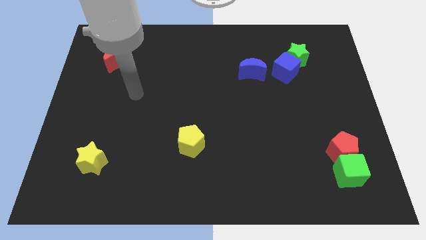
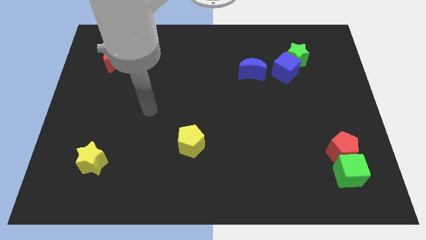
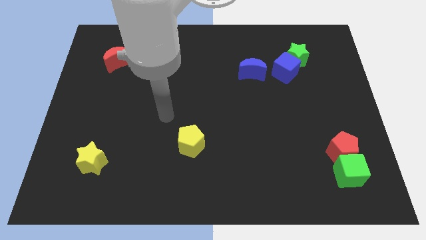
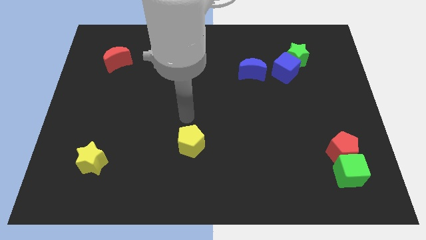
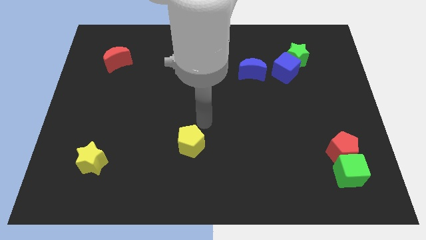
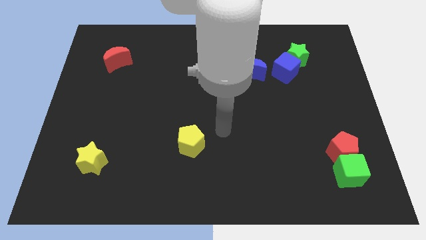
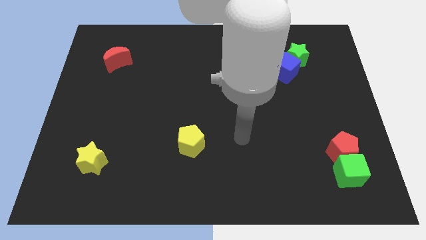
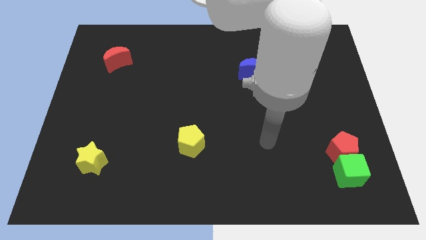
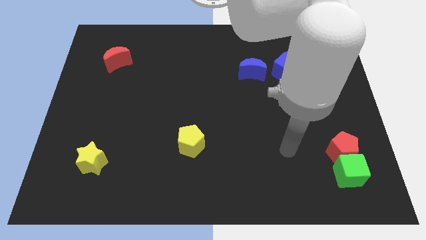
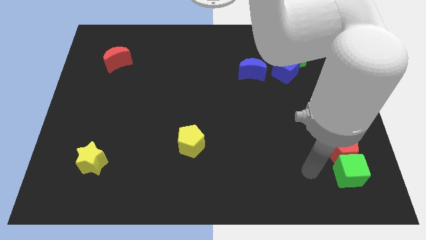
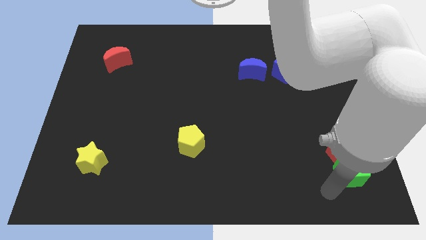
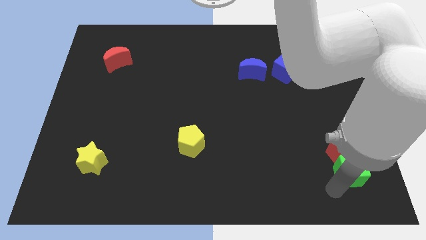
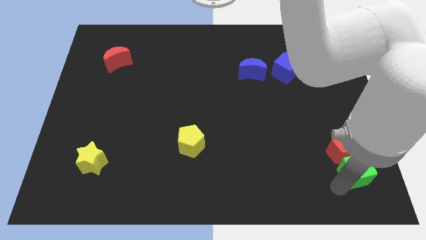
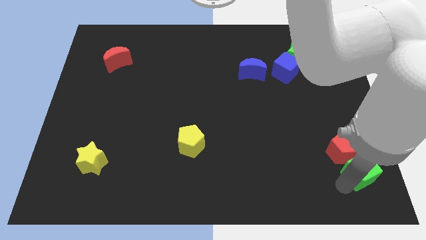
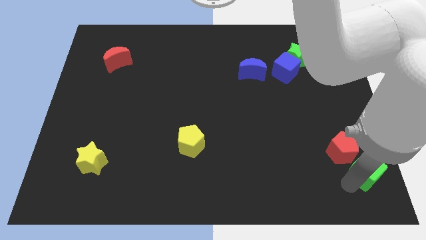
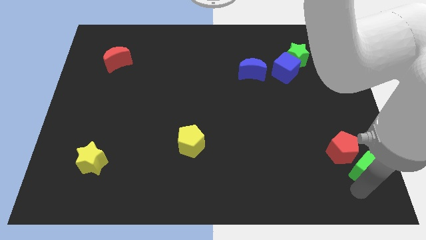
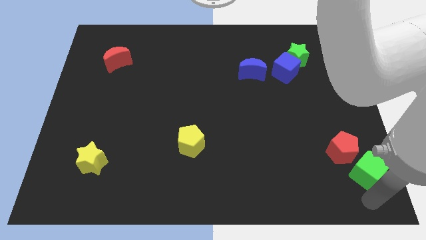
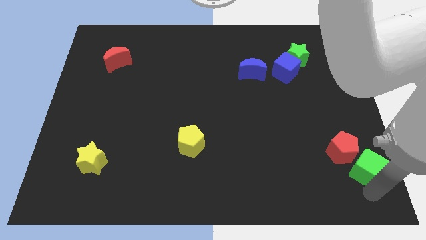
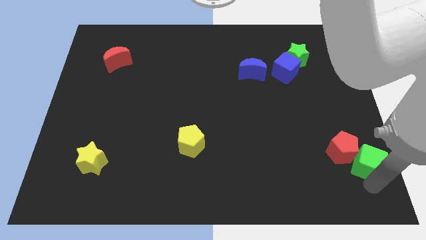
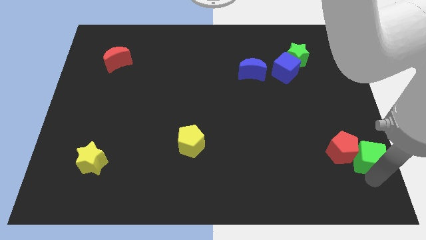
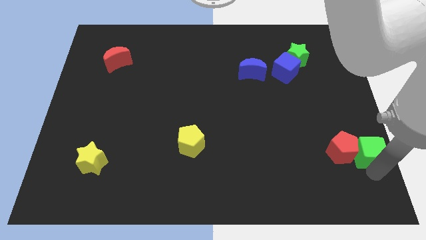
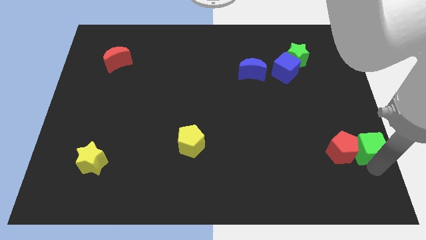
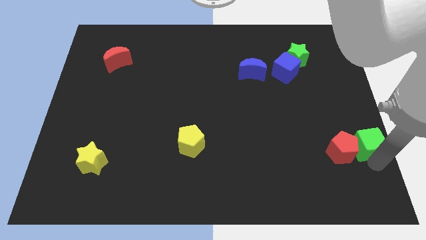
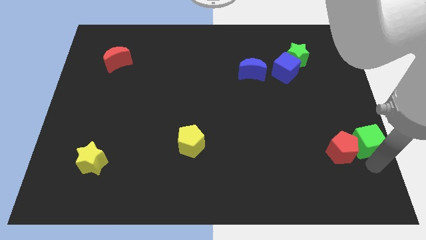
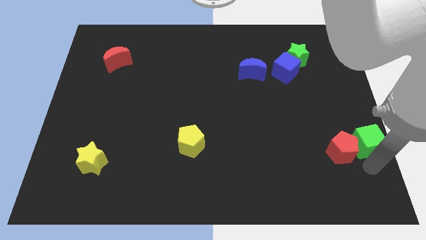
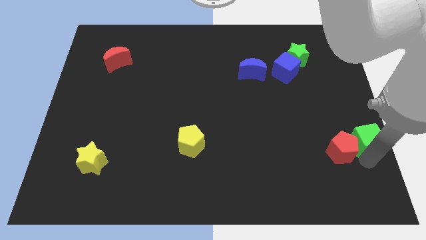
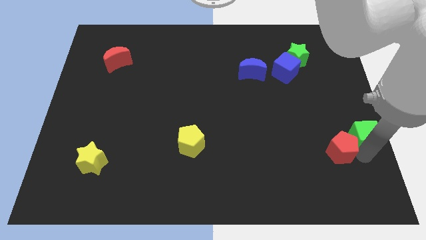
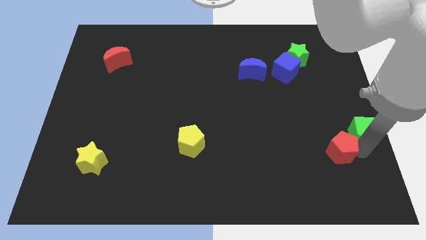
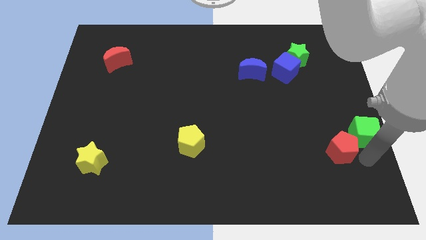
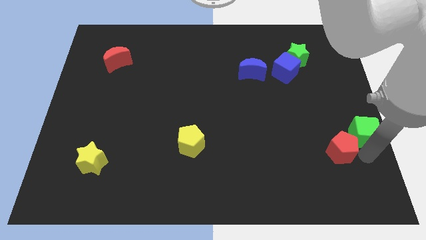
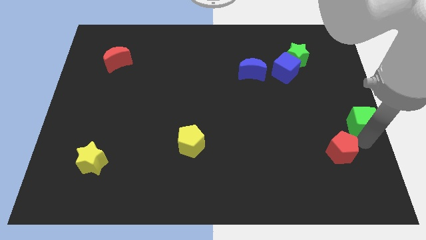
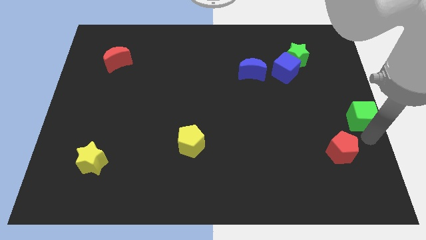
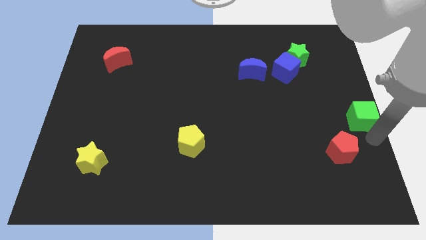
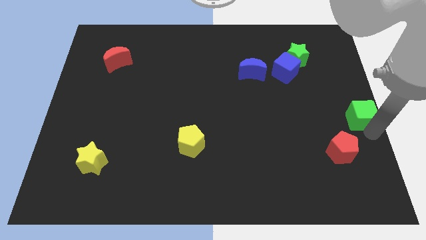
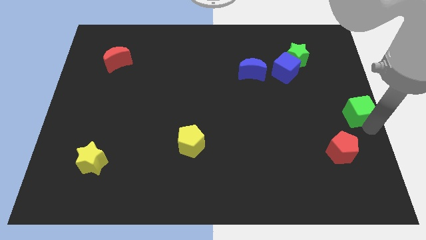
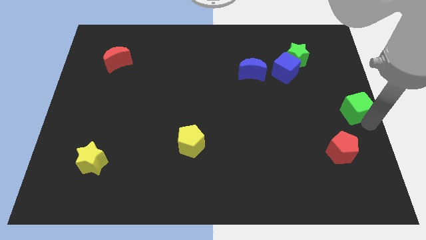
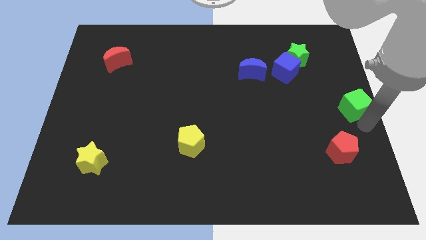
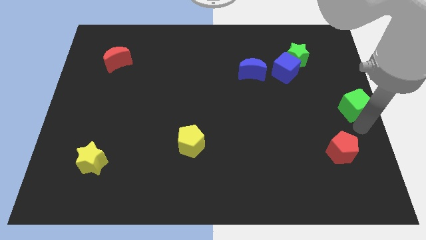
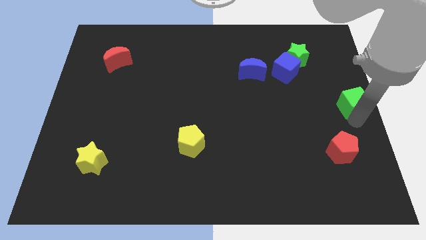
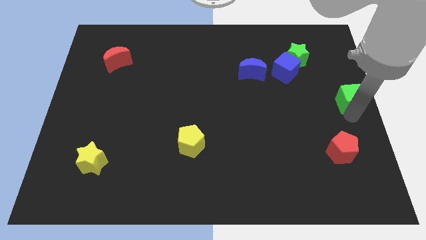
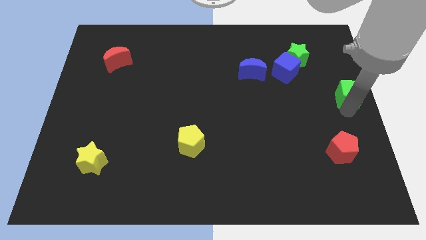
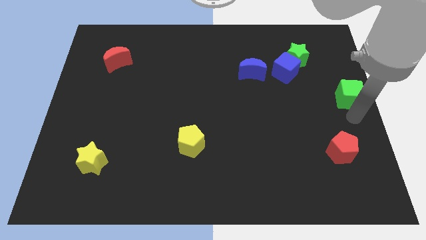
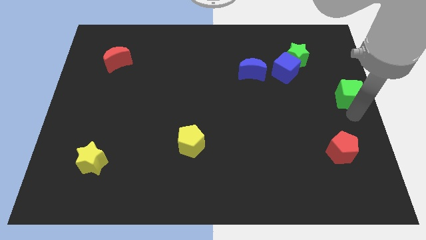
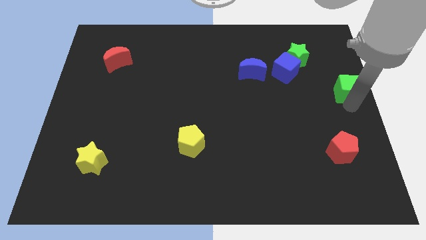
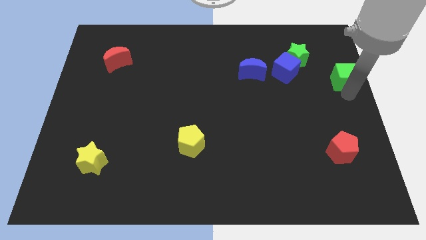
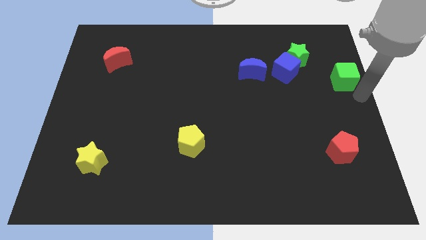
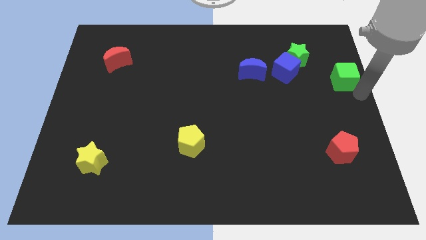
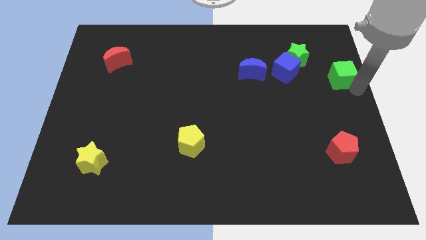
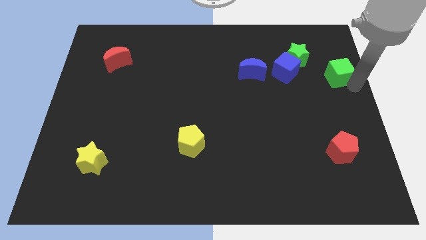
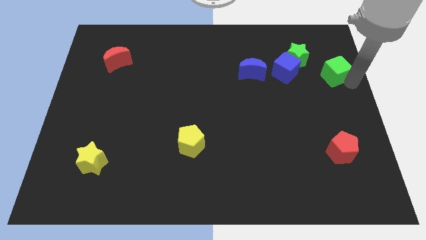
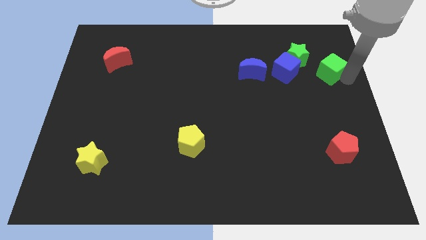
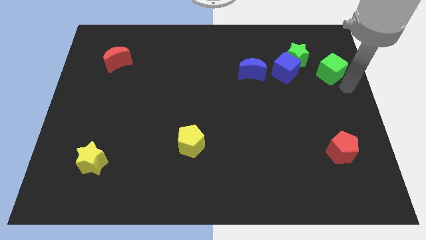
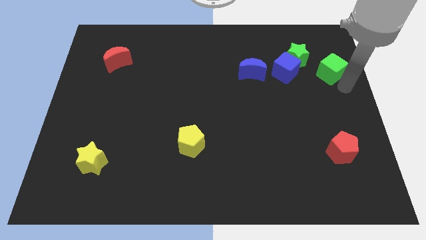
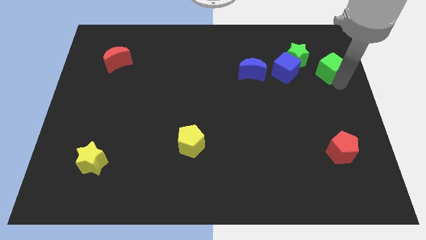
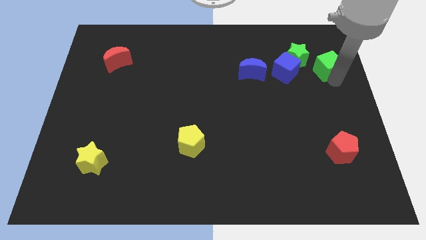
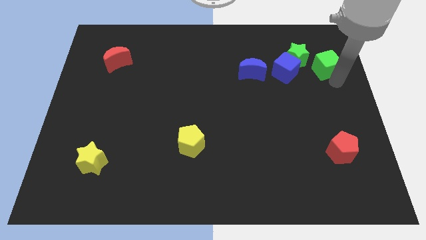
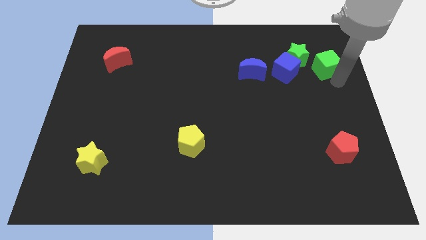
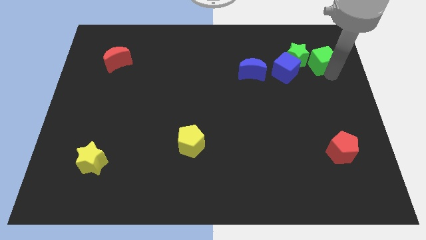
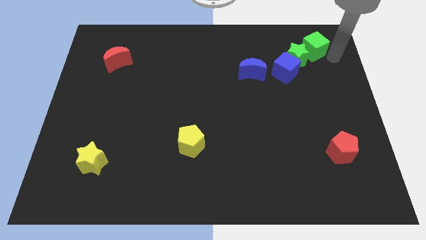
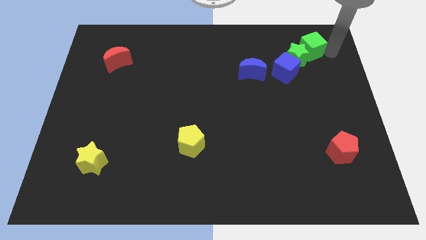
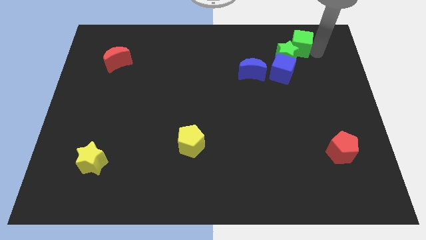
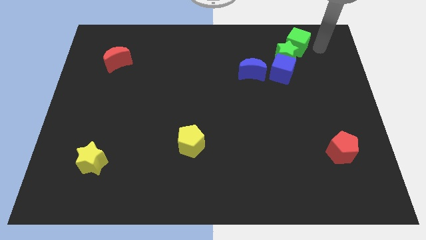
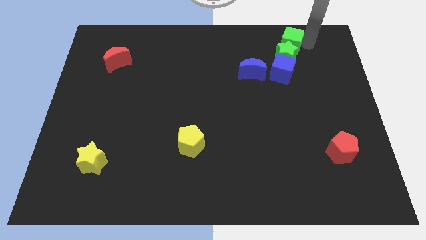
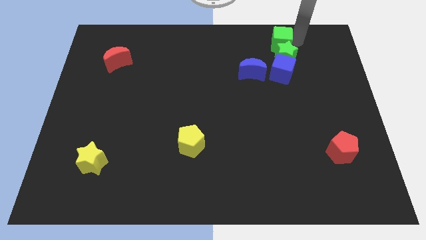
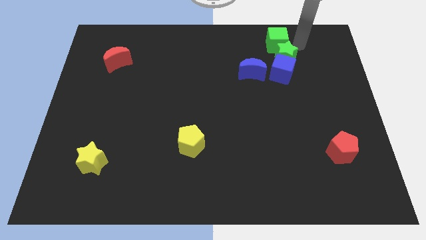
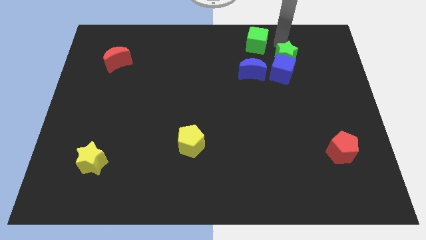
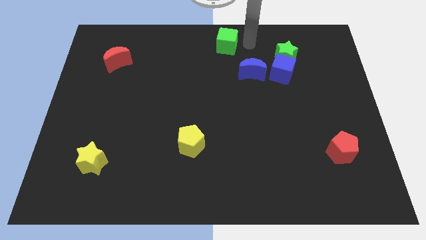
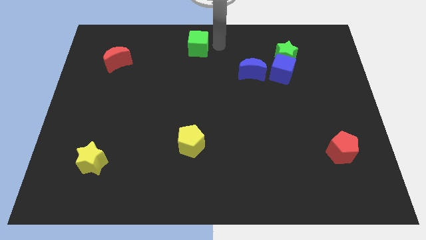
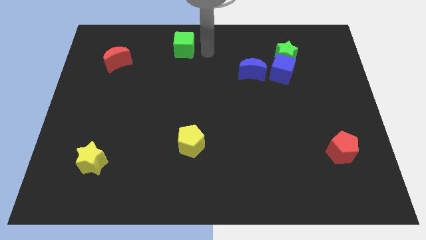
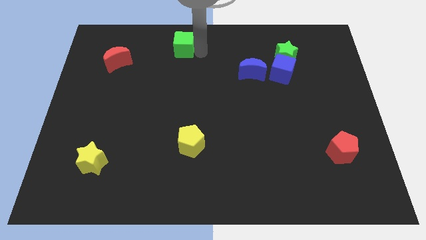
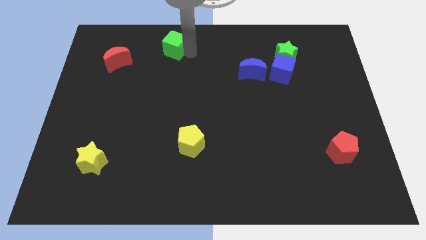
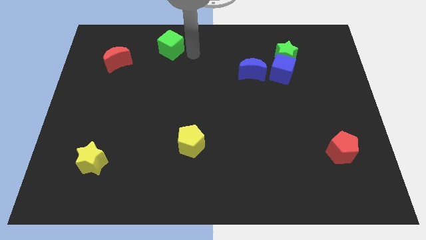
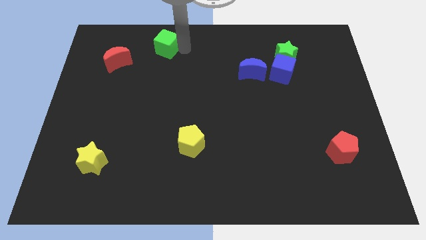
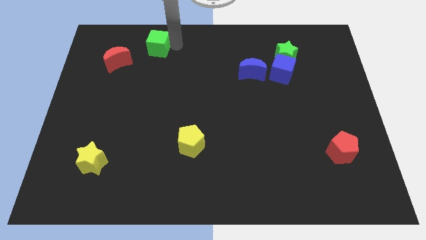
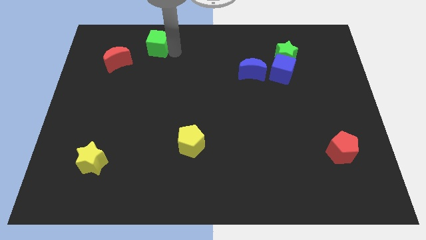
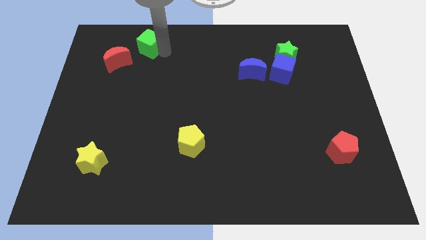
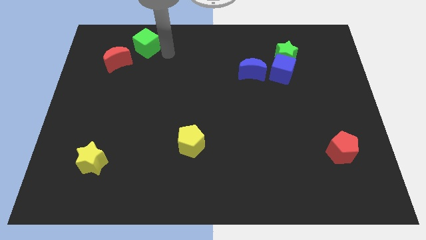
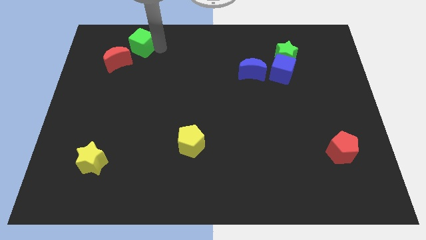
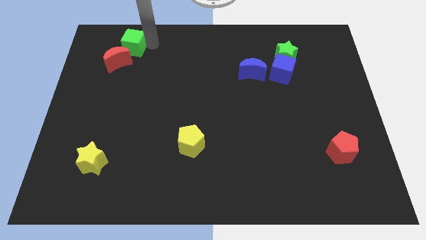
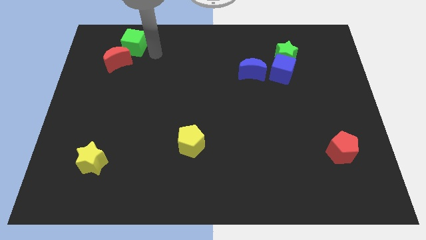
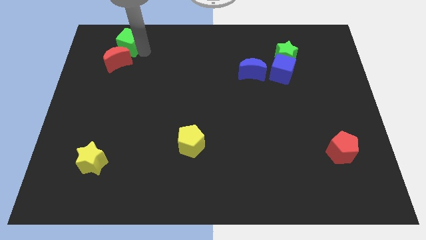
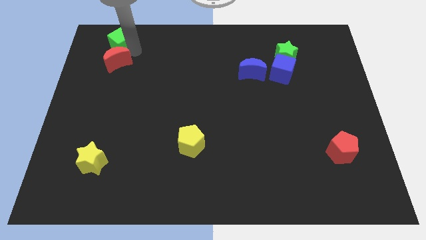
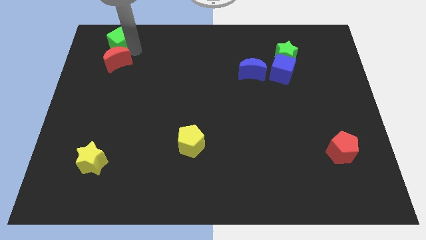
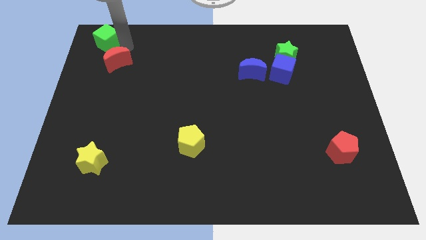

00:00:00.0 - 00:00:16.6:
move the green cube to the upper left corner
